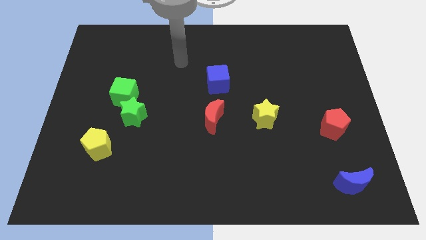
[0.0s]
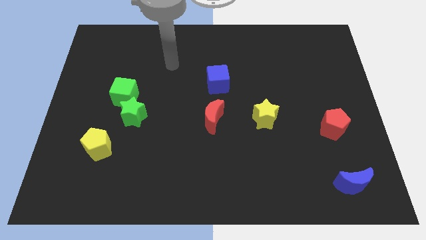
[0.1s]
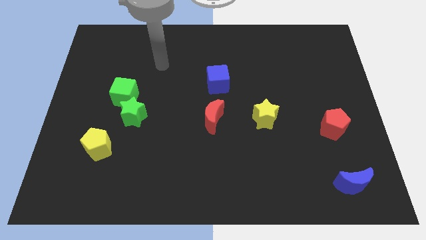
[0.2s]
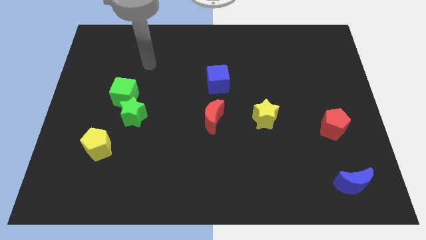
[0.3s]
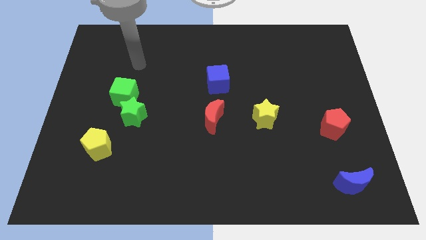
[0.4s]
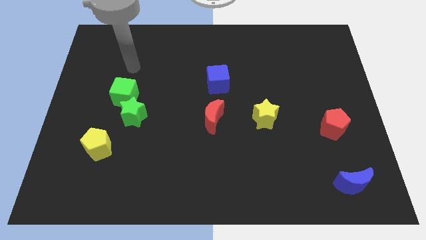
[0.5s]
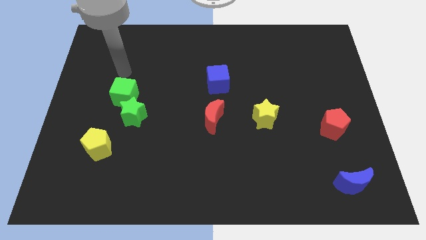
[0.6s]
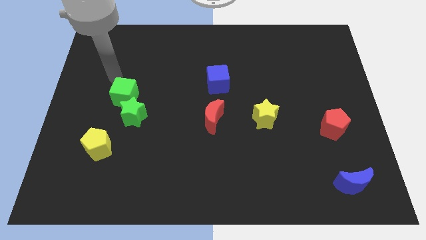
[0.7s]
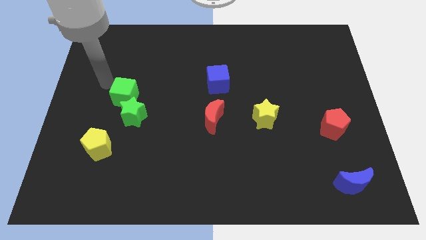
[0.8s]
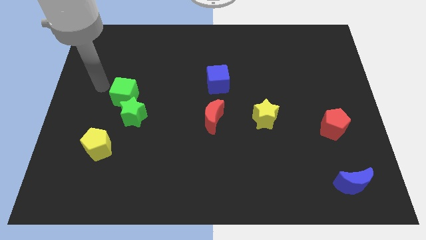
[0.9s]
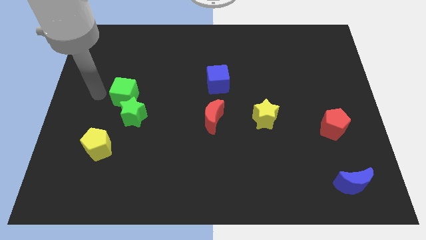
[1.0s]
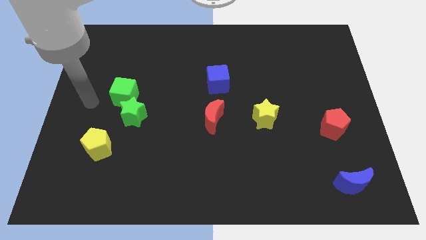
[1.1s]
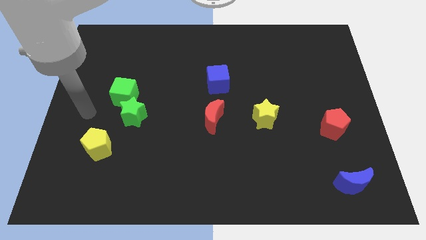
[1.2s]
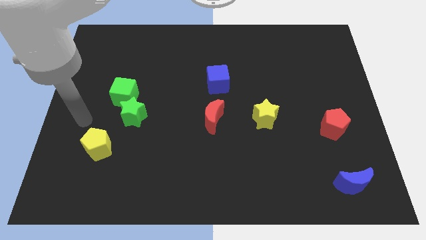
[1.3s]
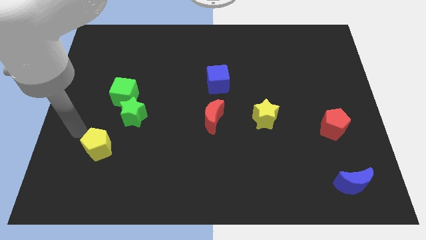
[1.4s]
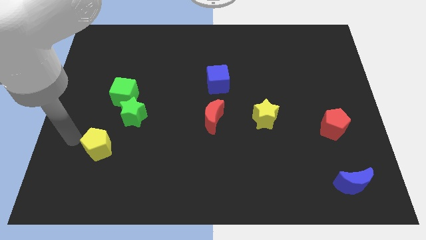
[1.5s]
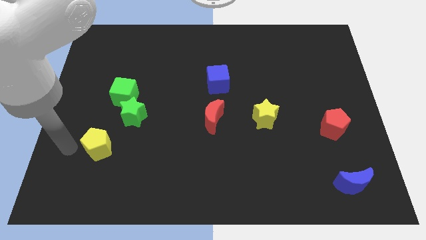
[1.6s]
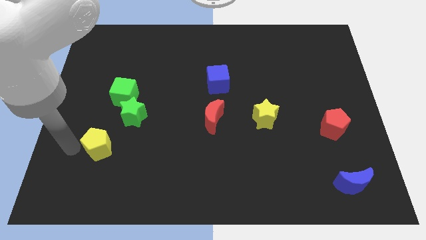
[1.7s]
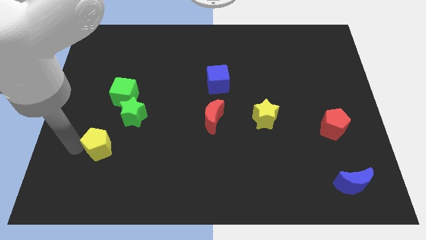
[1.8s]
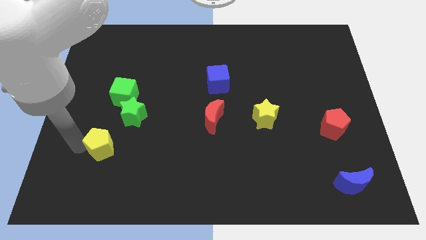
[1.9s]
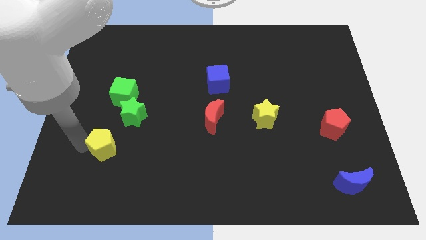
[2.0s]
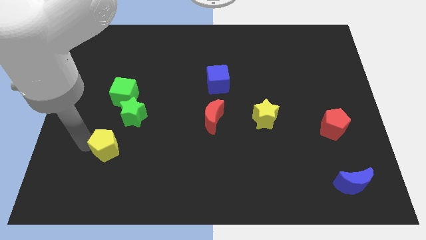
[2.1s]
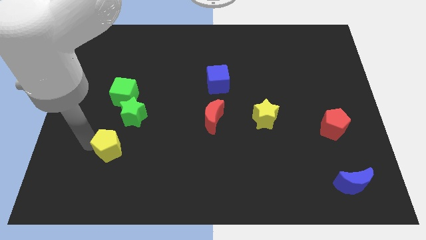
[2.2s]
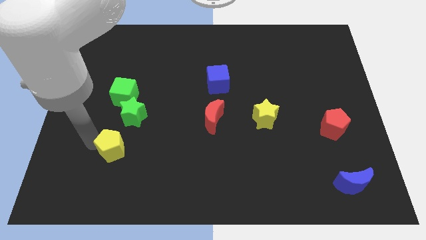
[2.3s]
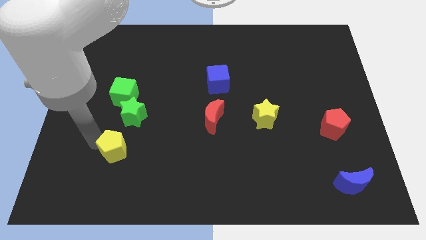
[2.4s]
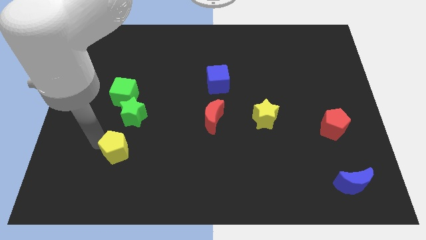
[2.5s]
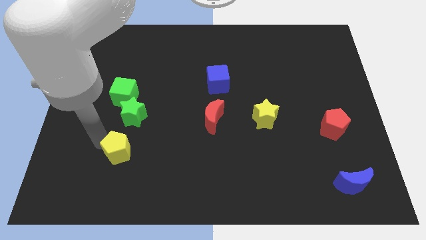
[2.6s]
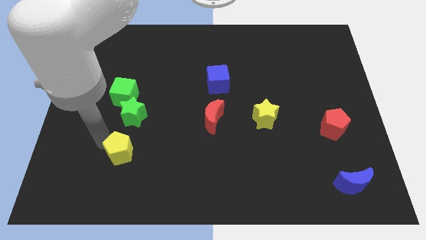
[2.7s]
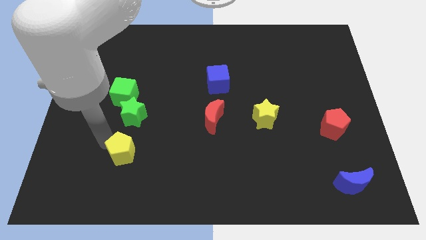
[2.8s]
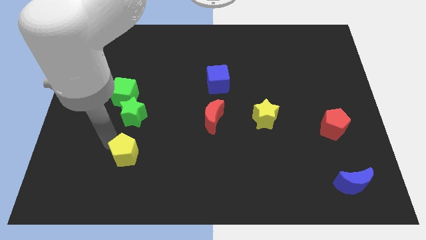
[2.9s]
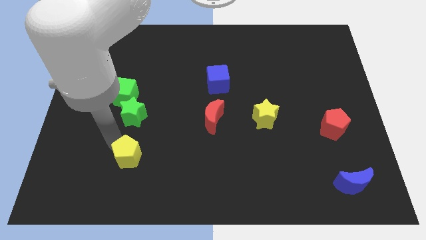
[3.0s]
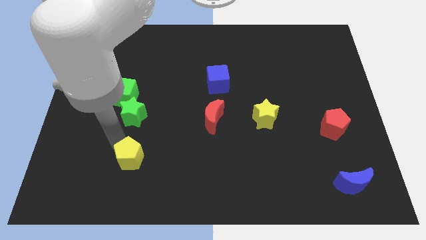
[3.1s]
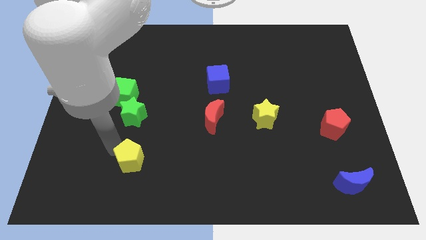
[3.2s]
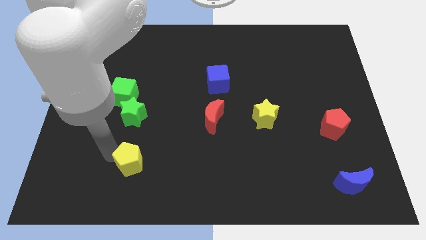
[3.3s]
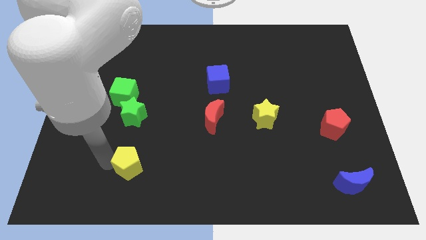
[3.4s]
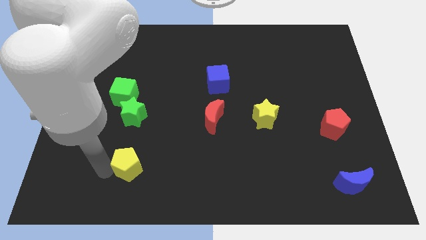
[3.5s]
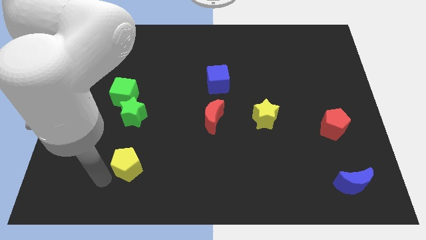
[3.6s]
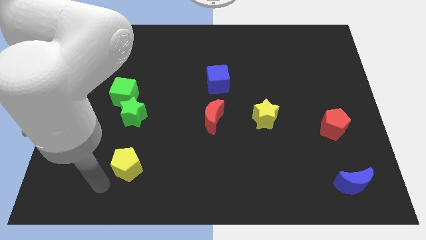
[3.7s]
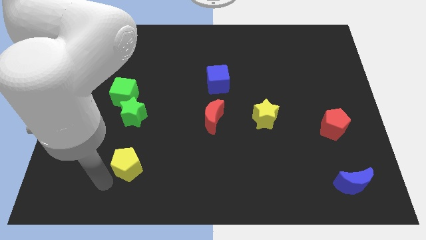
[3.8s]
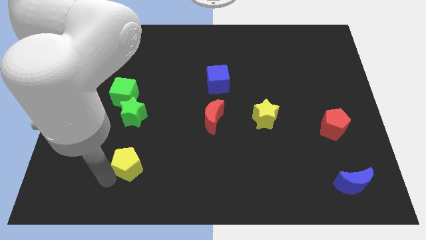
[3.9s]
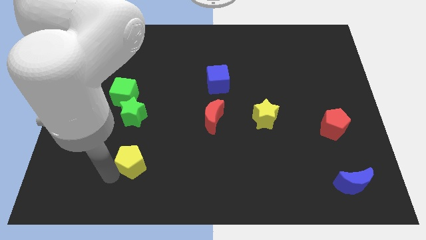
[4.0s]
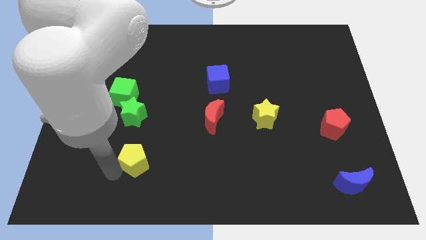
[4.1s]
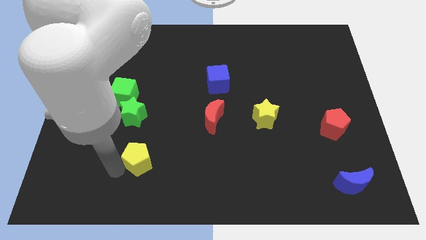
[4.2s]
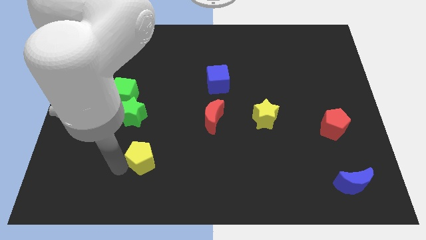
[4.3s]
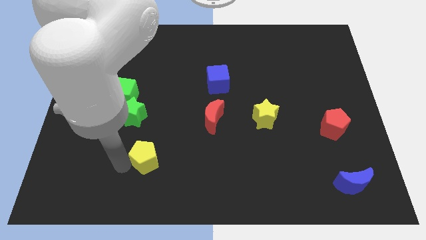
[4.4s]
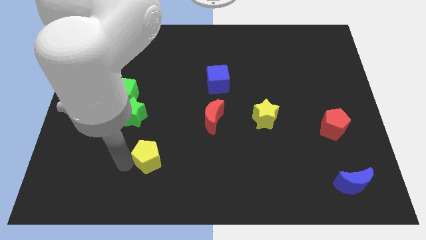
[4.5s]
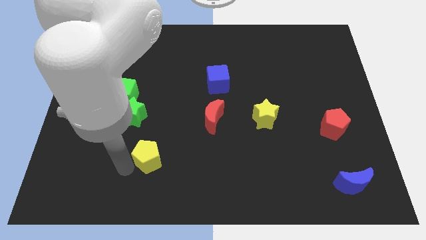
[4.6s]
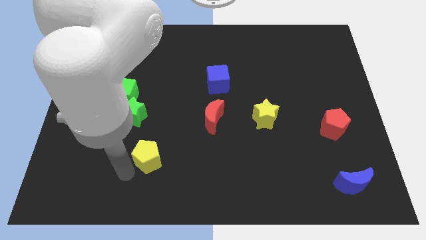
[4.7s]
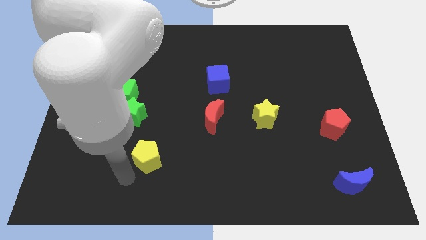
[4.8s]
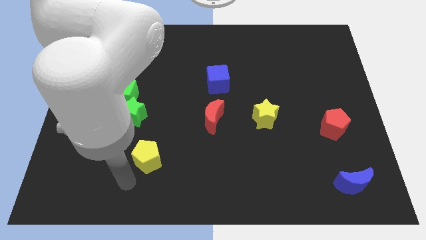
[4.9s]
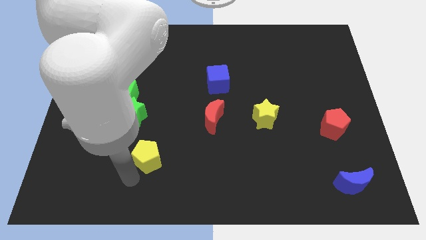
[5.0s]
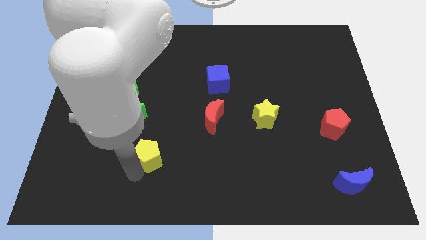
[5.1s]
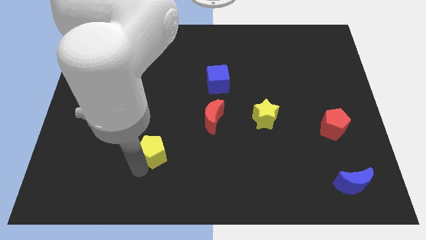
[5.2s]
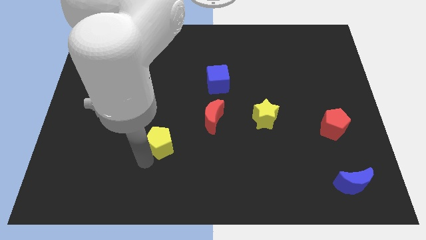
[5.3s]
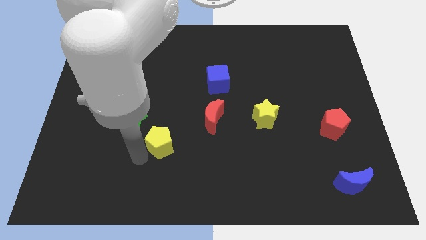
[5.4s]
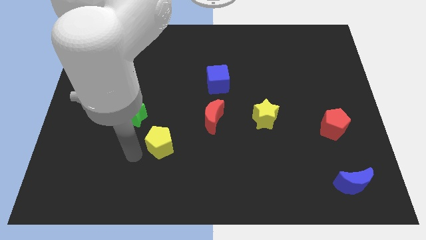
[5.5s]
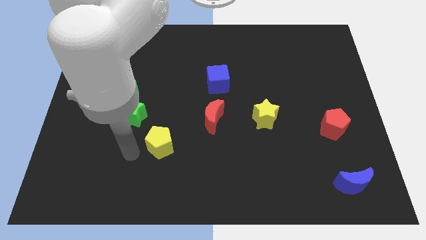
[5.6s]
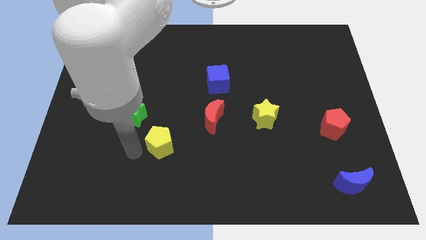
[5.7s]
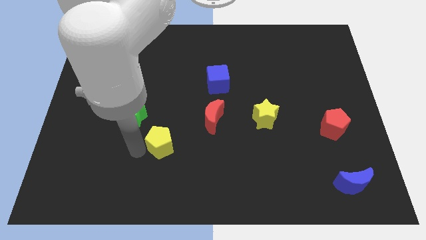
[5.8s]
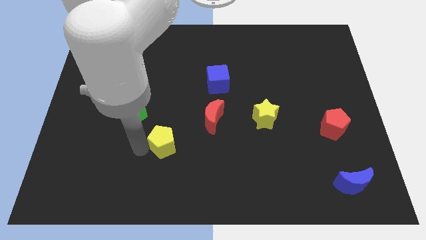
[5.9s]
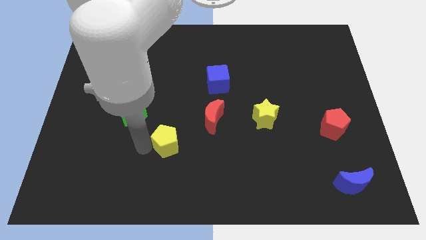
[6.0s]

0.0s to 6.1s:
push the yellow pentagon to the bottom left side of the red moon

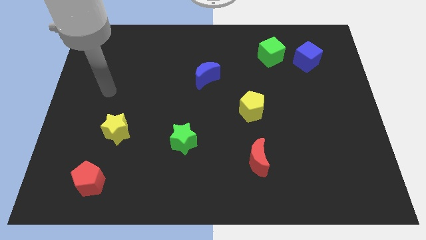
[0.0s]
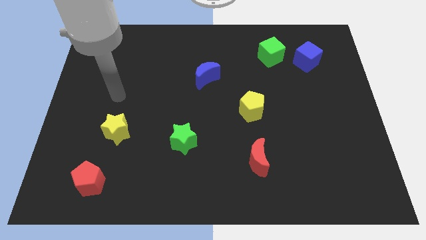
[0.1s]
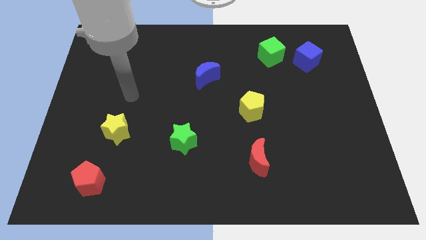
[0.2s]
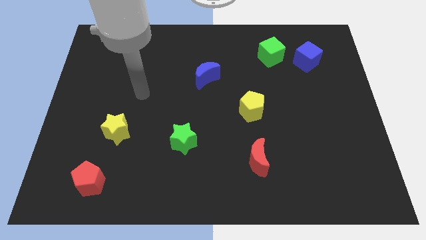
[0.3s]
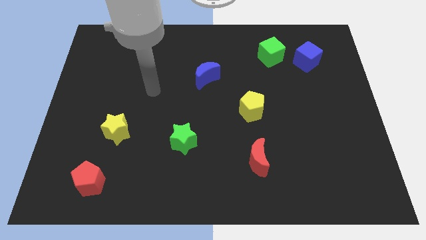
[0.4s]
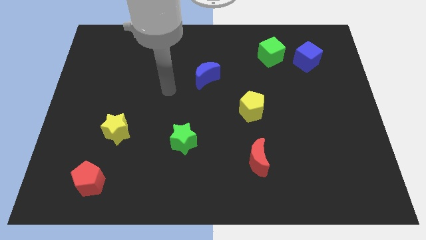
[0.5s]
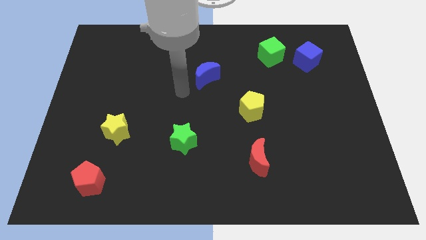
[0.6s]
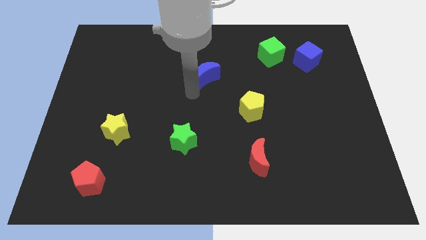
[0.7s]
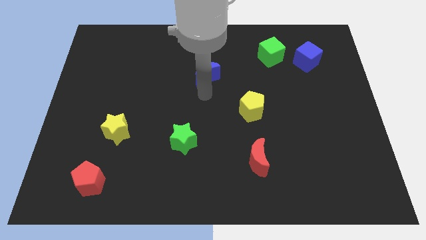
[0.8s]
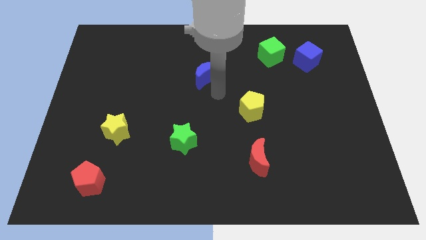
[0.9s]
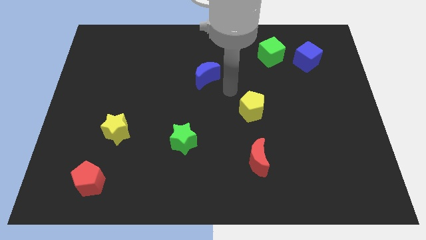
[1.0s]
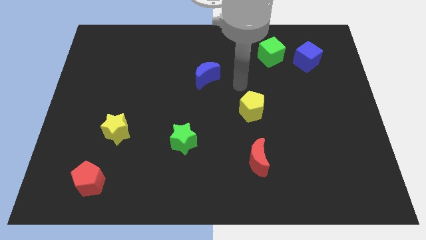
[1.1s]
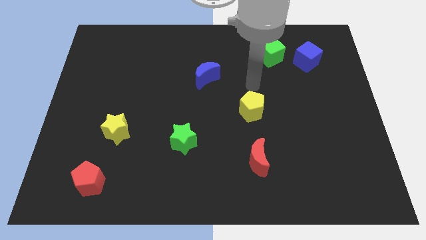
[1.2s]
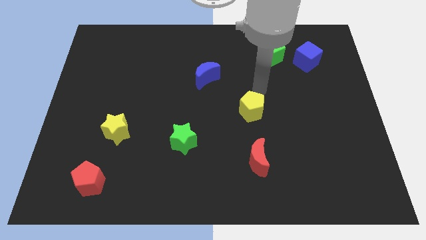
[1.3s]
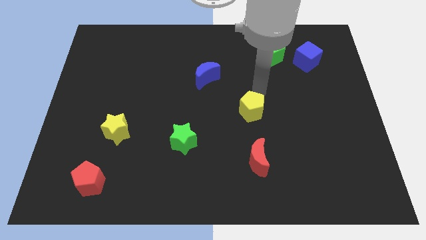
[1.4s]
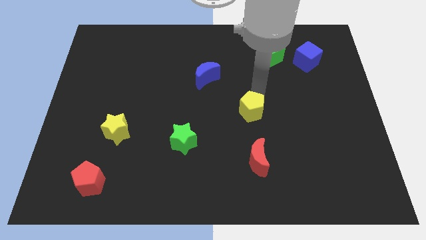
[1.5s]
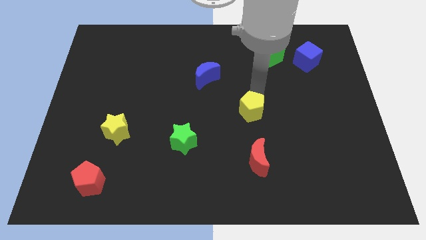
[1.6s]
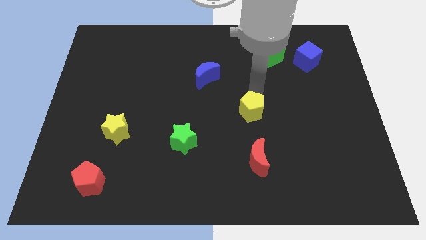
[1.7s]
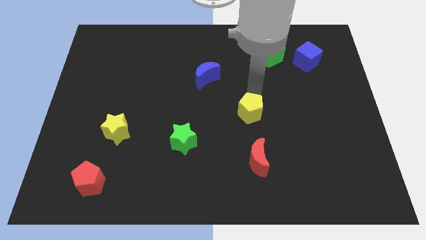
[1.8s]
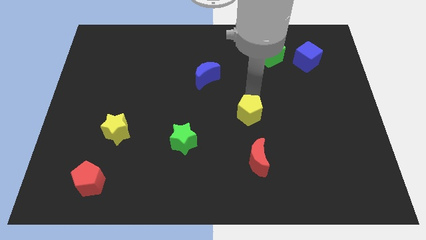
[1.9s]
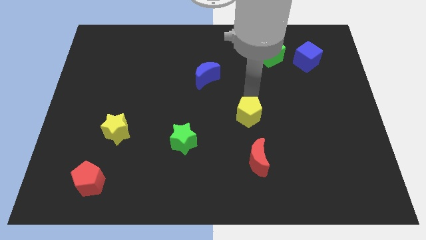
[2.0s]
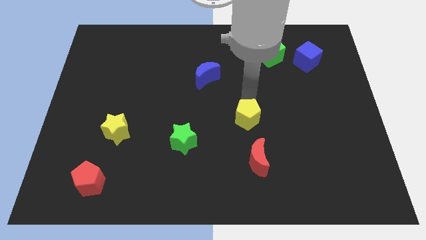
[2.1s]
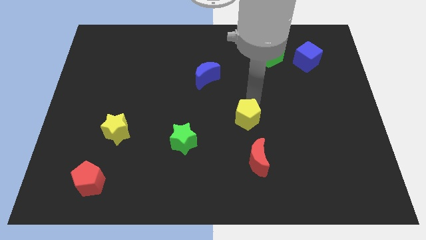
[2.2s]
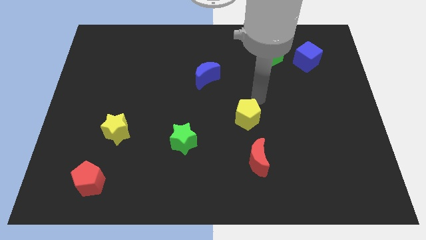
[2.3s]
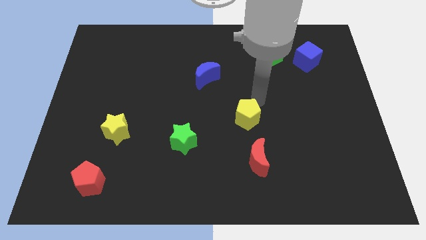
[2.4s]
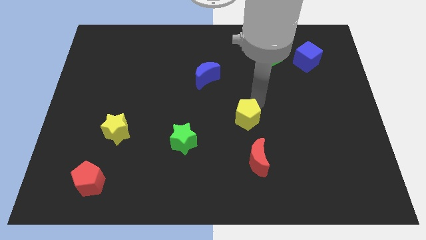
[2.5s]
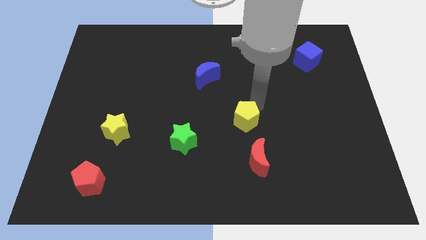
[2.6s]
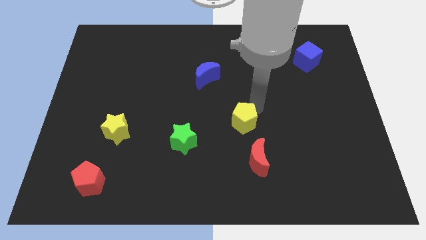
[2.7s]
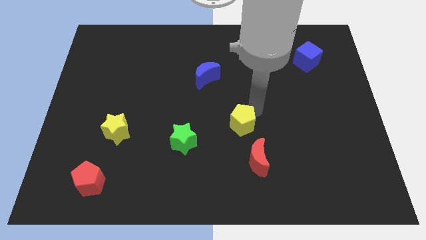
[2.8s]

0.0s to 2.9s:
slide the yellow pentagon to the top left side of the red moon
